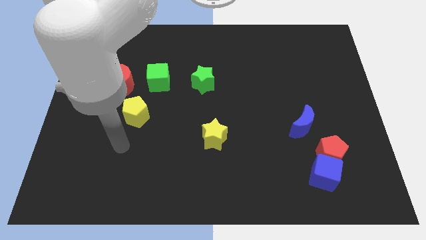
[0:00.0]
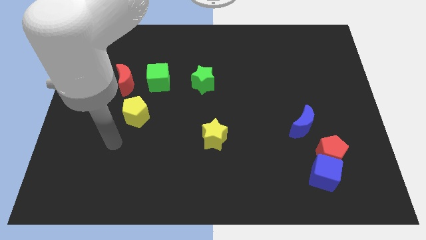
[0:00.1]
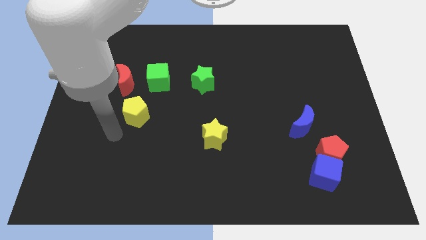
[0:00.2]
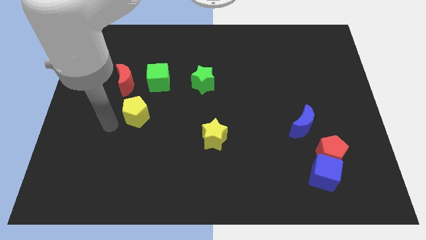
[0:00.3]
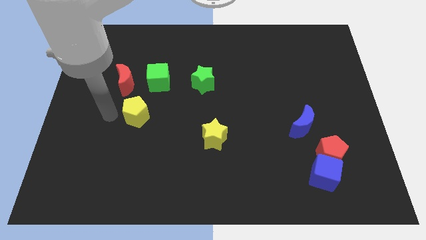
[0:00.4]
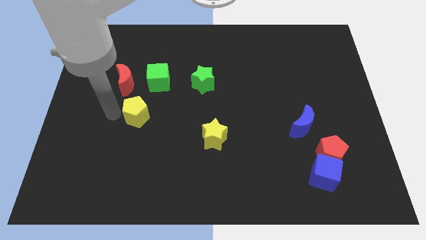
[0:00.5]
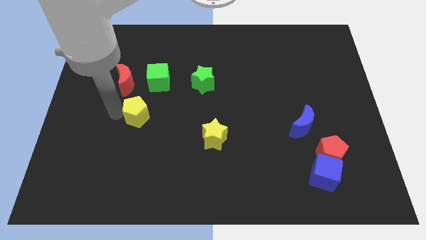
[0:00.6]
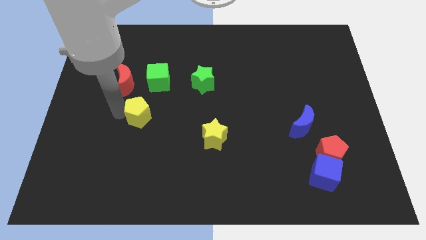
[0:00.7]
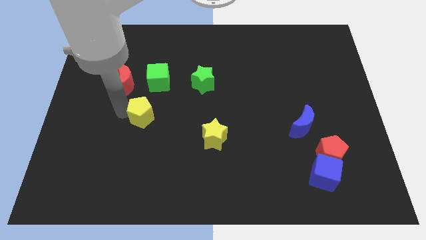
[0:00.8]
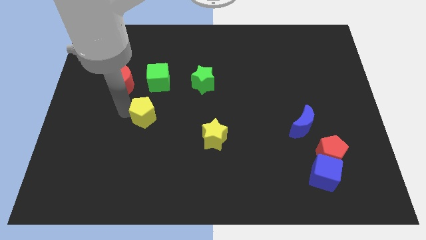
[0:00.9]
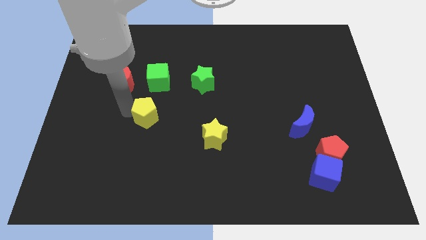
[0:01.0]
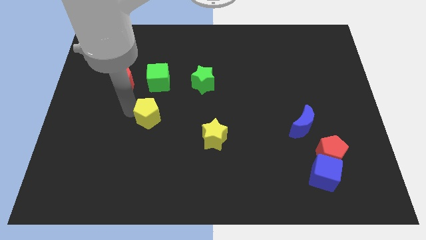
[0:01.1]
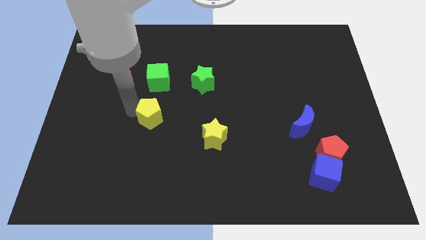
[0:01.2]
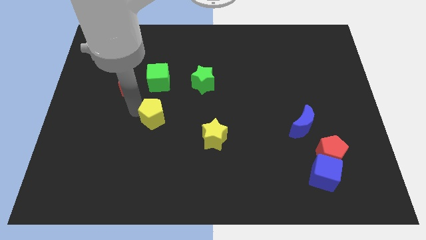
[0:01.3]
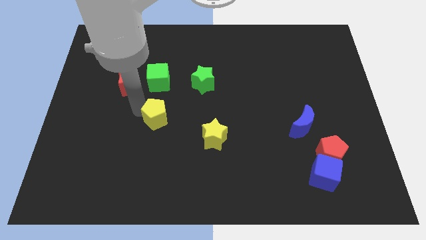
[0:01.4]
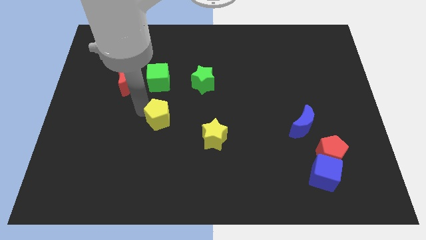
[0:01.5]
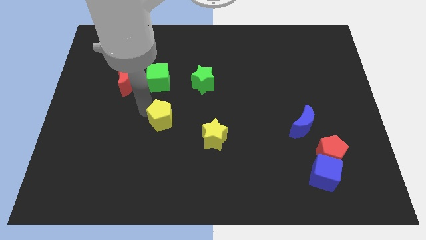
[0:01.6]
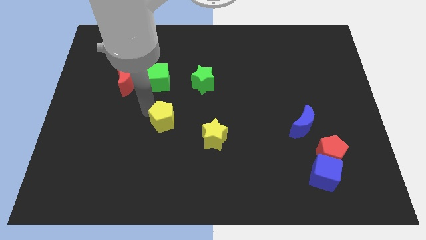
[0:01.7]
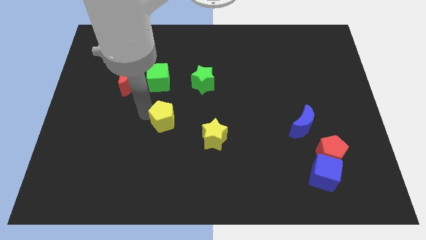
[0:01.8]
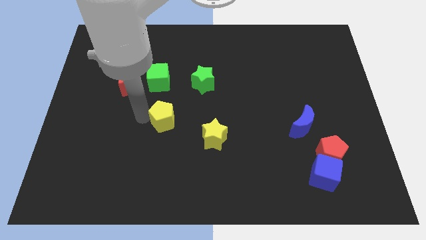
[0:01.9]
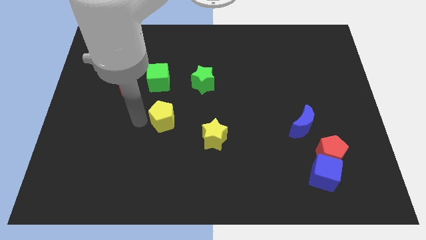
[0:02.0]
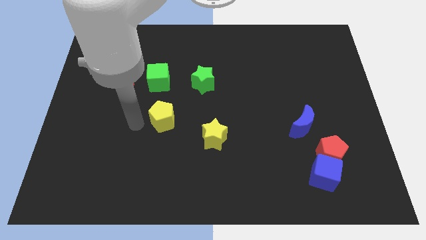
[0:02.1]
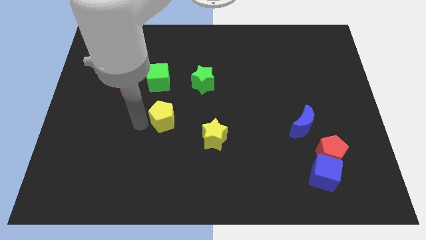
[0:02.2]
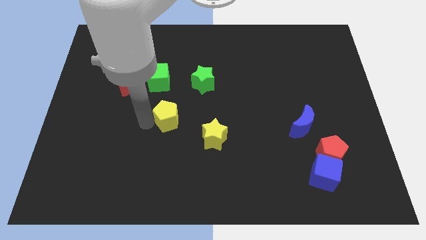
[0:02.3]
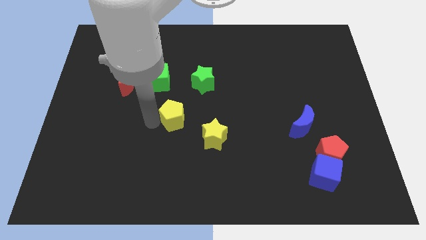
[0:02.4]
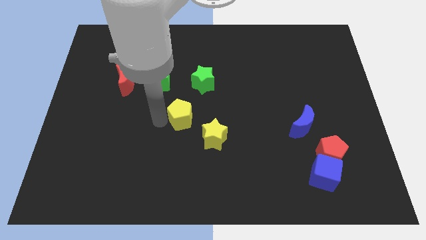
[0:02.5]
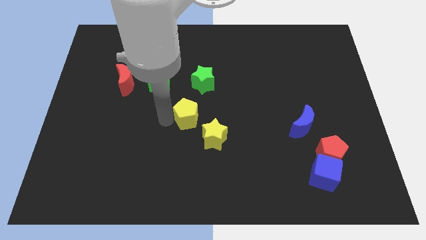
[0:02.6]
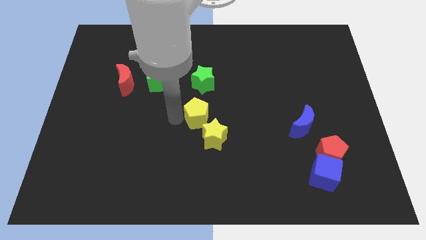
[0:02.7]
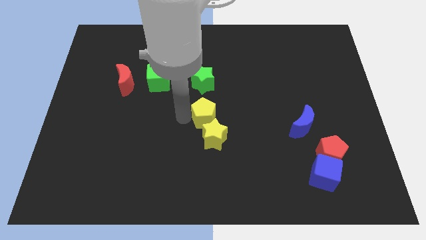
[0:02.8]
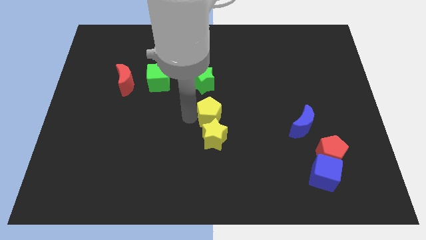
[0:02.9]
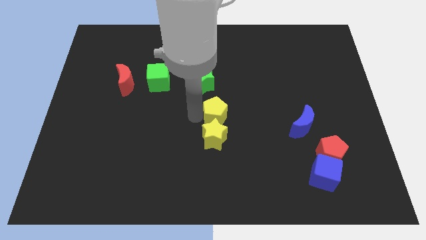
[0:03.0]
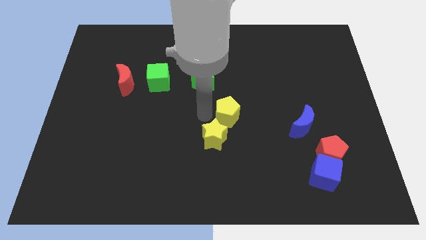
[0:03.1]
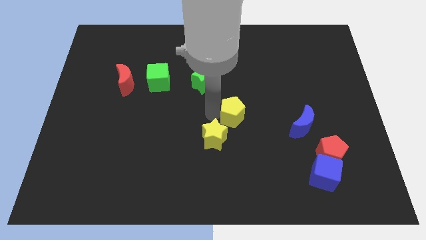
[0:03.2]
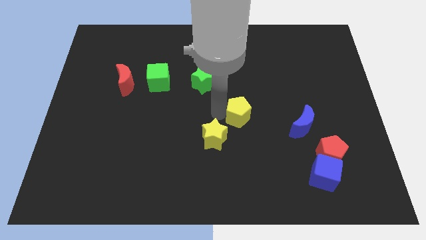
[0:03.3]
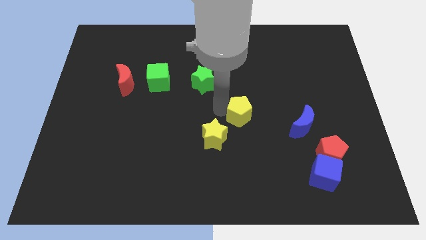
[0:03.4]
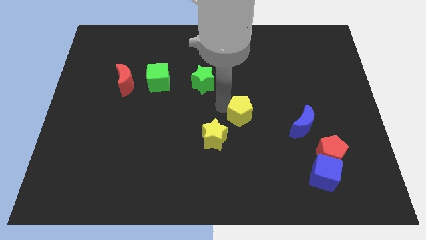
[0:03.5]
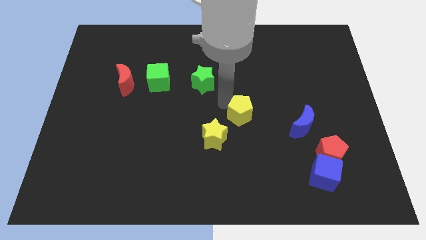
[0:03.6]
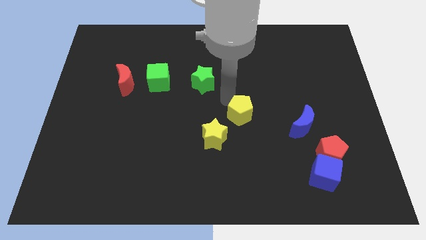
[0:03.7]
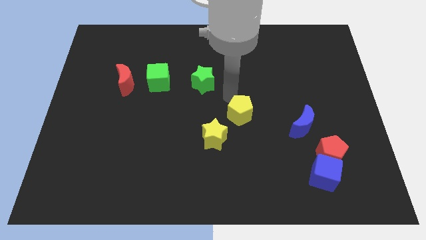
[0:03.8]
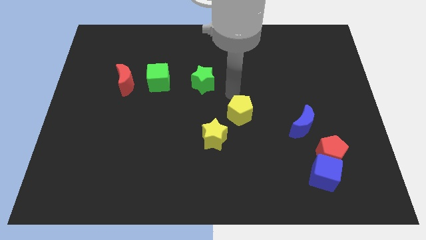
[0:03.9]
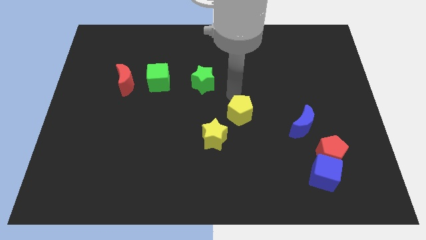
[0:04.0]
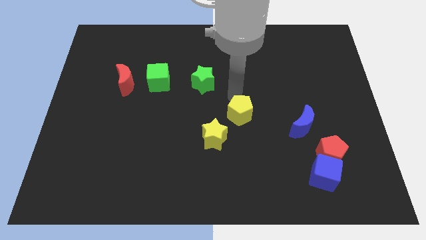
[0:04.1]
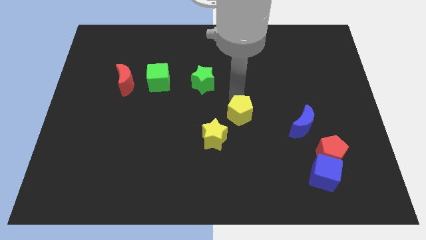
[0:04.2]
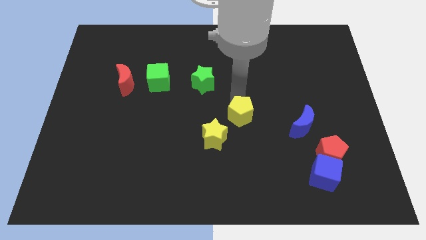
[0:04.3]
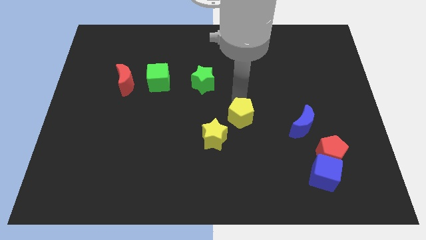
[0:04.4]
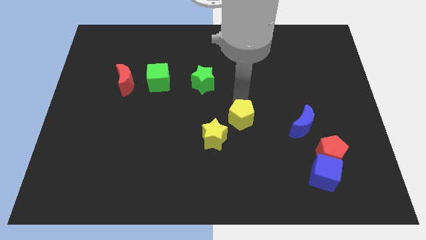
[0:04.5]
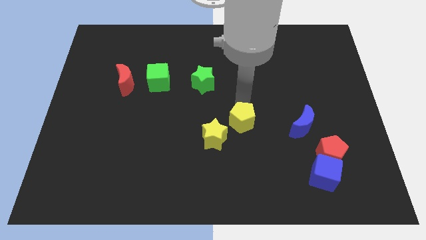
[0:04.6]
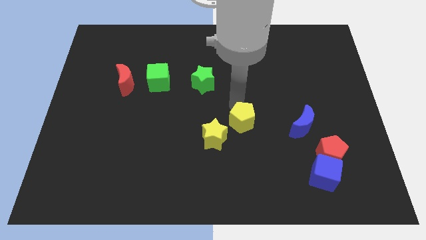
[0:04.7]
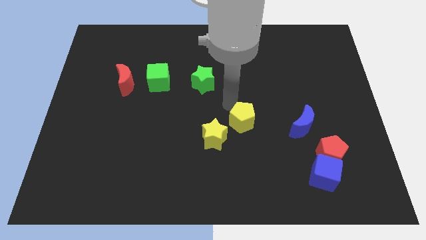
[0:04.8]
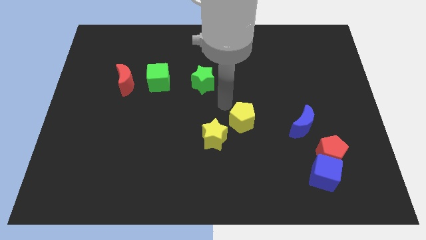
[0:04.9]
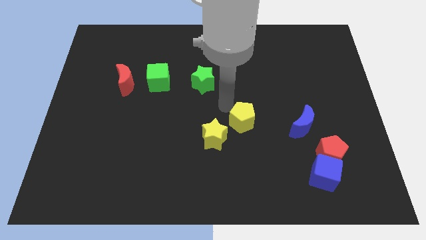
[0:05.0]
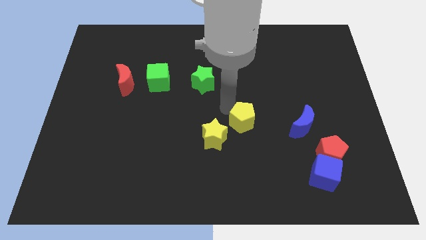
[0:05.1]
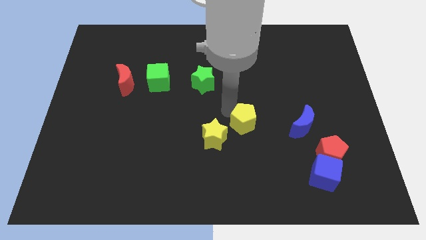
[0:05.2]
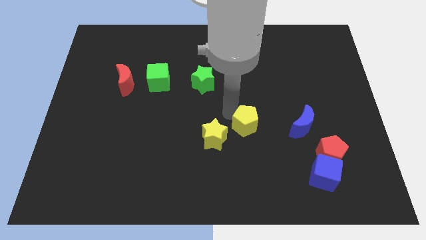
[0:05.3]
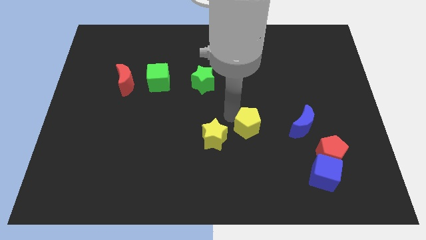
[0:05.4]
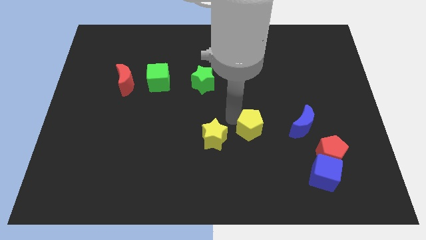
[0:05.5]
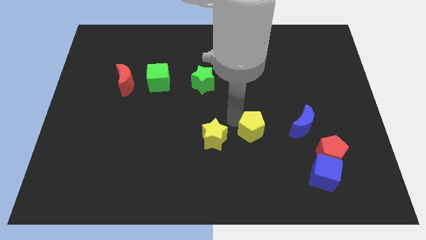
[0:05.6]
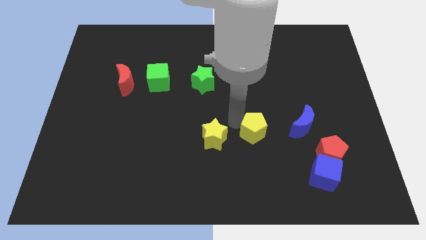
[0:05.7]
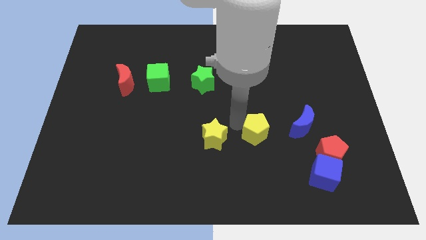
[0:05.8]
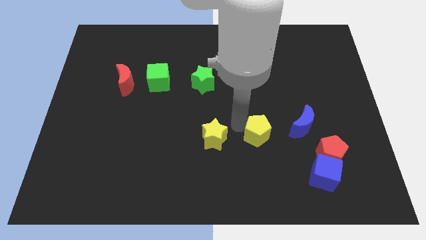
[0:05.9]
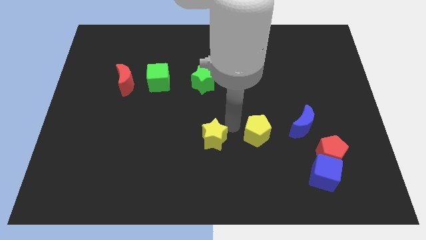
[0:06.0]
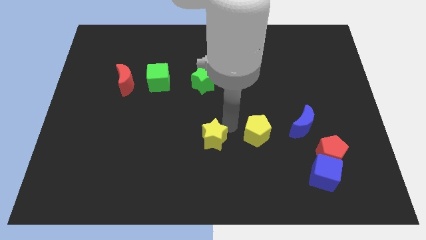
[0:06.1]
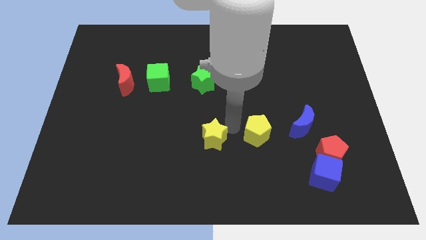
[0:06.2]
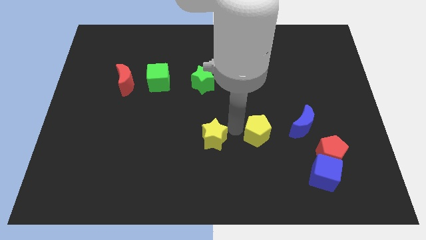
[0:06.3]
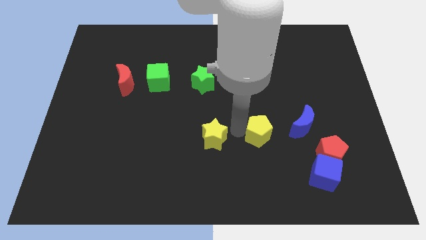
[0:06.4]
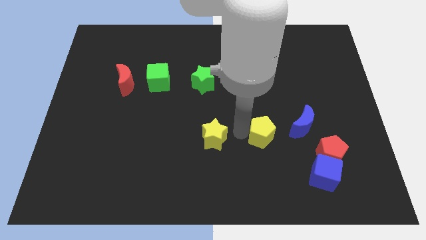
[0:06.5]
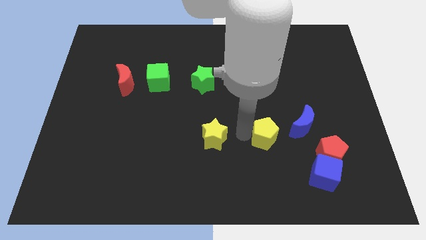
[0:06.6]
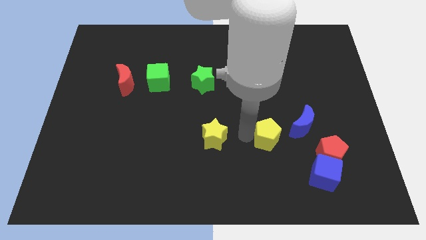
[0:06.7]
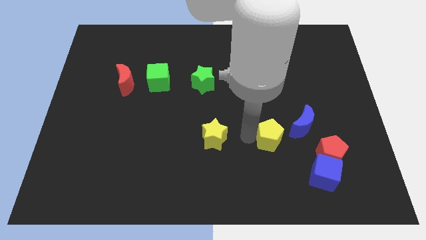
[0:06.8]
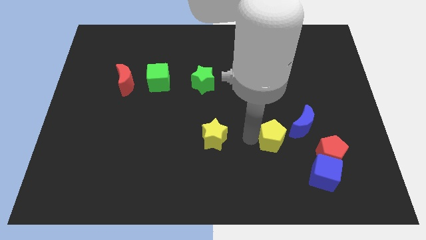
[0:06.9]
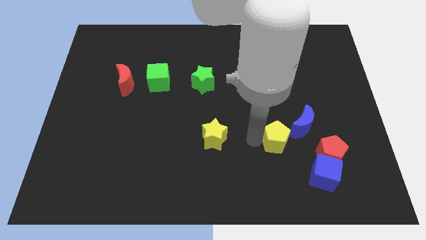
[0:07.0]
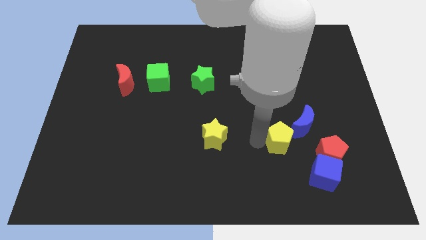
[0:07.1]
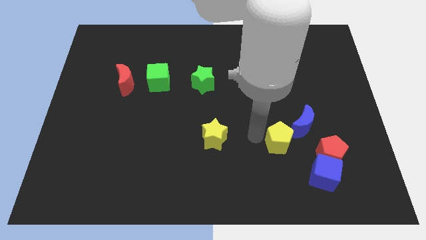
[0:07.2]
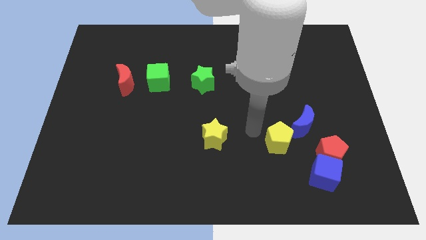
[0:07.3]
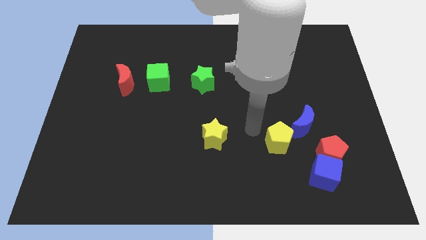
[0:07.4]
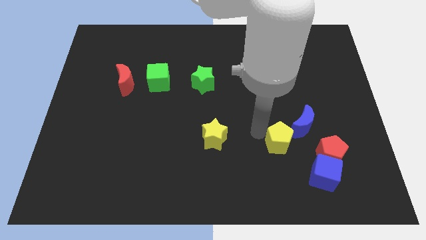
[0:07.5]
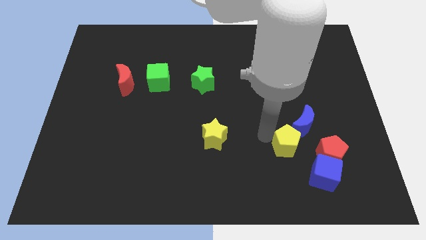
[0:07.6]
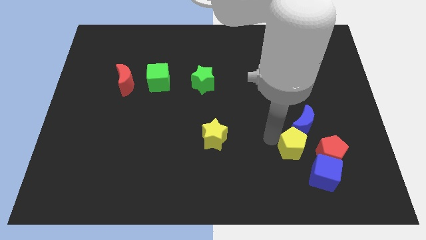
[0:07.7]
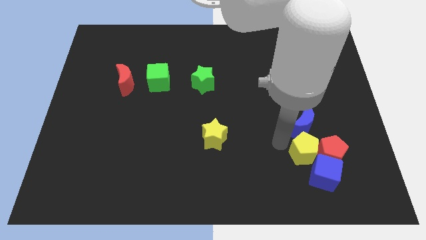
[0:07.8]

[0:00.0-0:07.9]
slide the yellow pentagon to the red pentagon

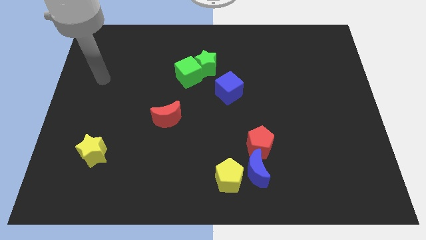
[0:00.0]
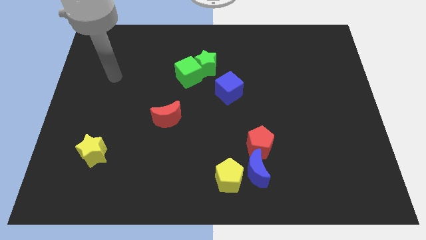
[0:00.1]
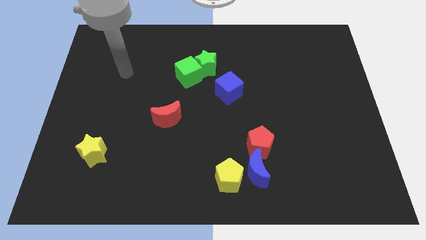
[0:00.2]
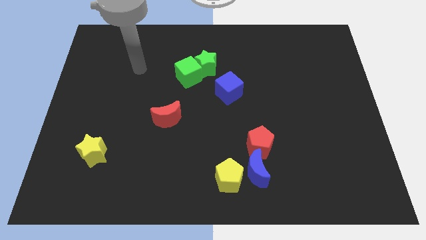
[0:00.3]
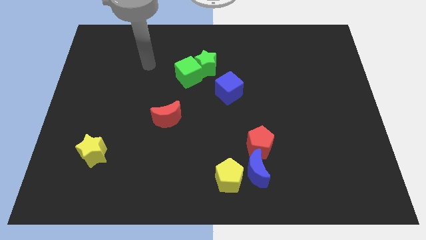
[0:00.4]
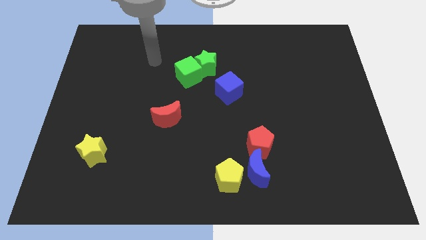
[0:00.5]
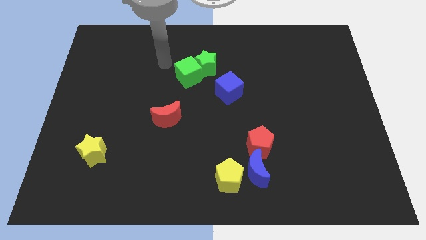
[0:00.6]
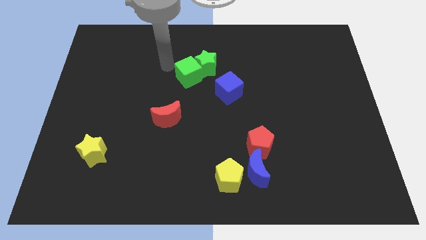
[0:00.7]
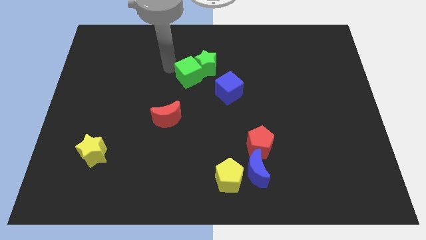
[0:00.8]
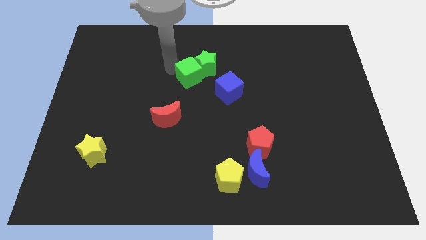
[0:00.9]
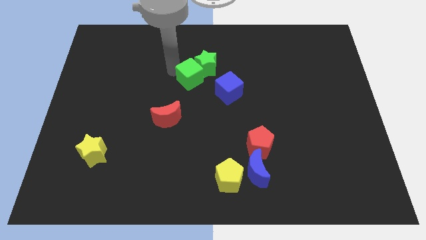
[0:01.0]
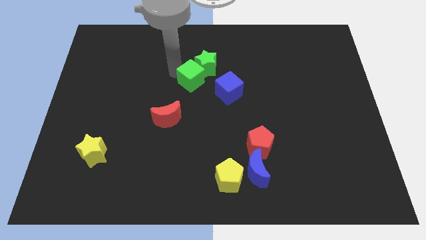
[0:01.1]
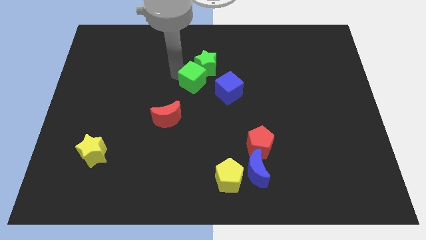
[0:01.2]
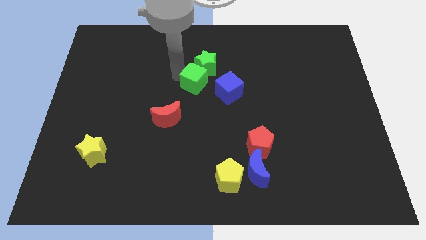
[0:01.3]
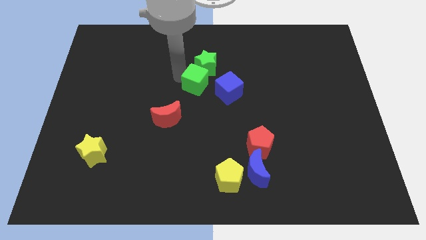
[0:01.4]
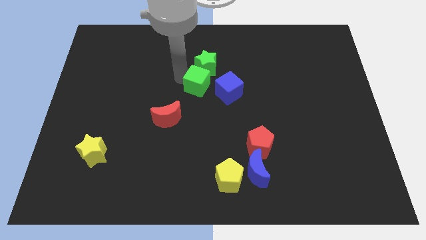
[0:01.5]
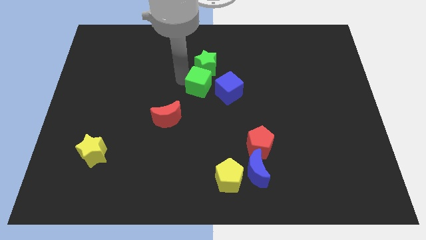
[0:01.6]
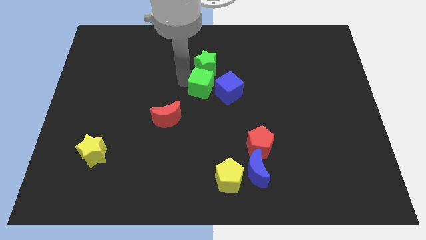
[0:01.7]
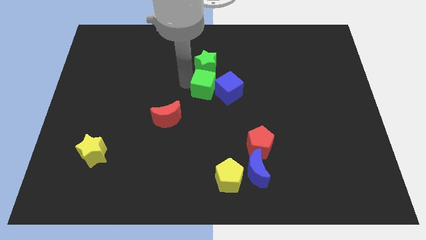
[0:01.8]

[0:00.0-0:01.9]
move the green cube next to the blue cube
